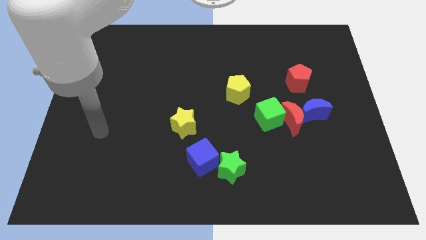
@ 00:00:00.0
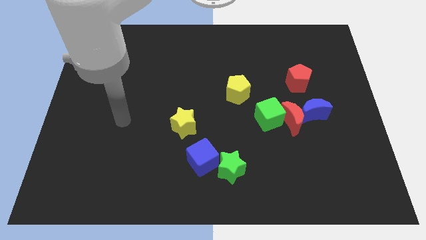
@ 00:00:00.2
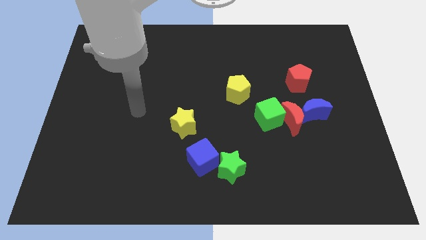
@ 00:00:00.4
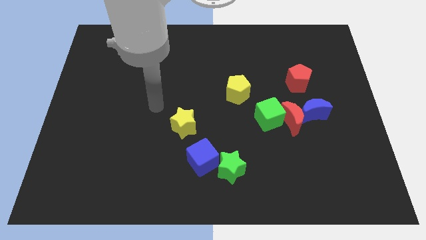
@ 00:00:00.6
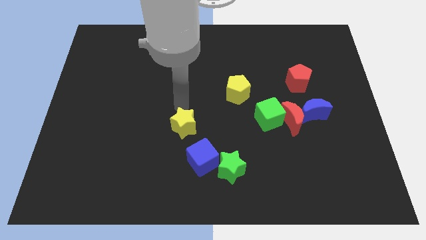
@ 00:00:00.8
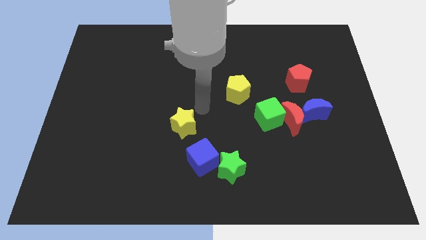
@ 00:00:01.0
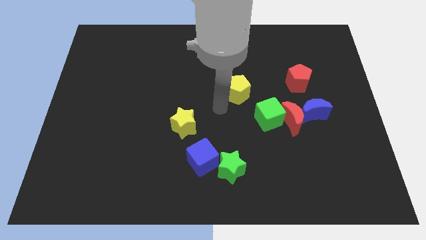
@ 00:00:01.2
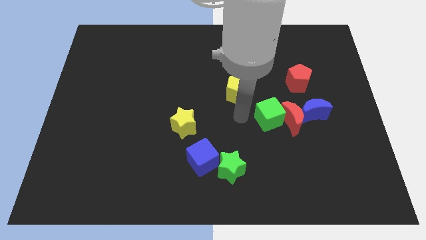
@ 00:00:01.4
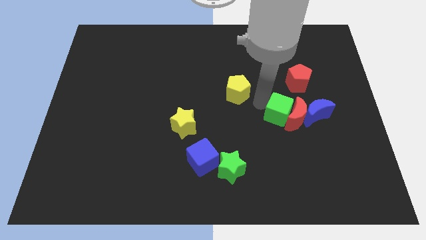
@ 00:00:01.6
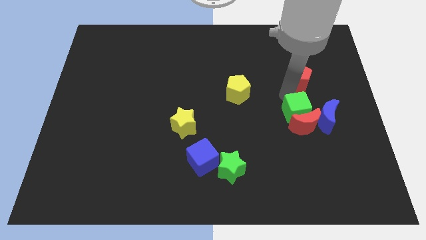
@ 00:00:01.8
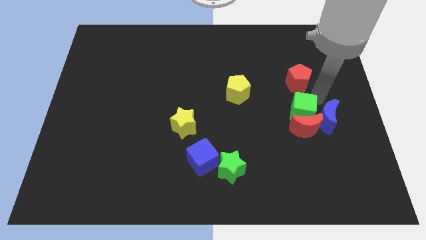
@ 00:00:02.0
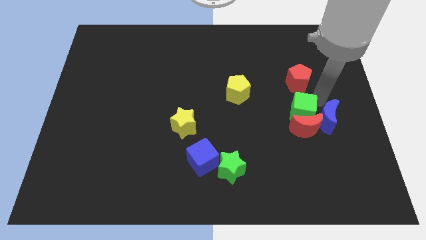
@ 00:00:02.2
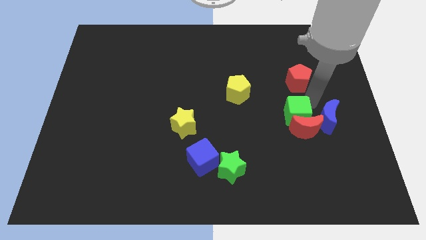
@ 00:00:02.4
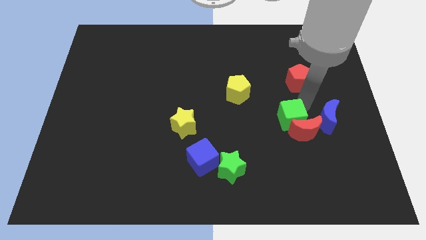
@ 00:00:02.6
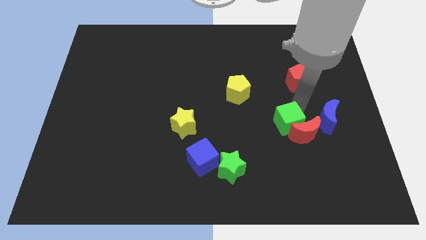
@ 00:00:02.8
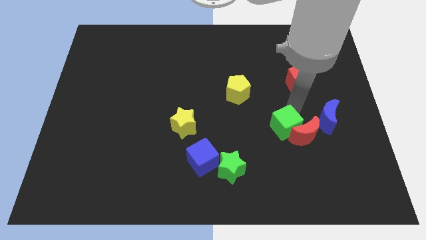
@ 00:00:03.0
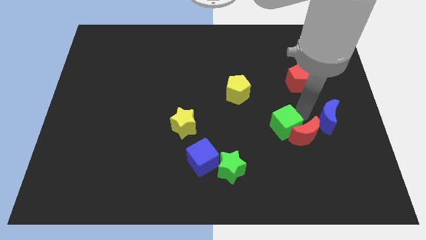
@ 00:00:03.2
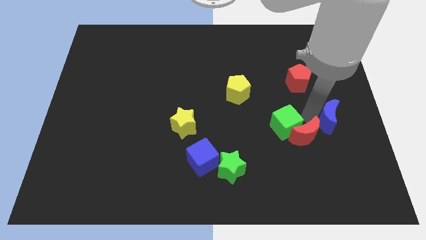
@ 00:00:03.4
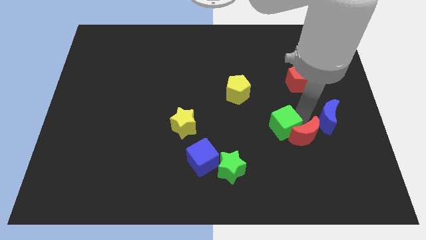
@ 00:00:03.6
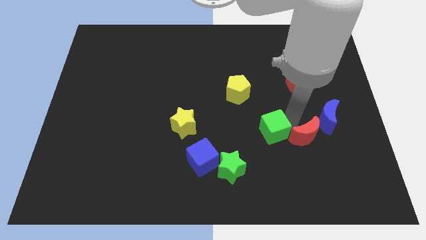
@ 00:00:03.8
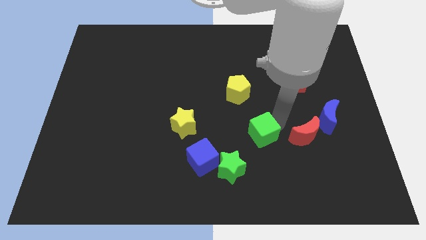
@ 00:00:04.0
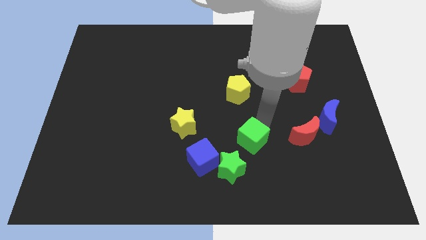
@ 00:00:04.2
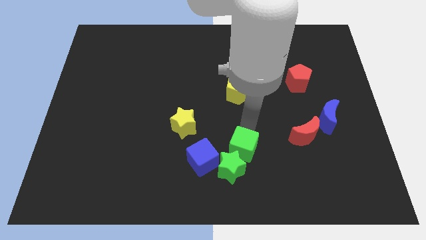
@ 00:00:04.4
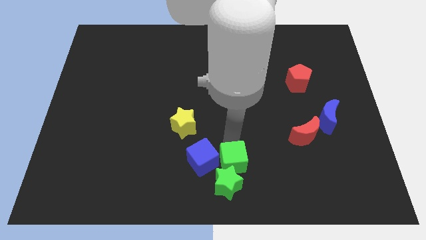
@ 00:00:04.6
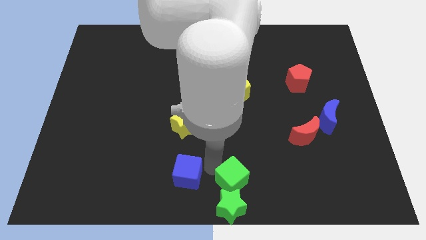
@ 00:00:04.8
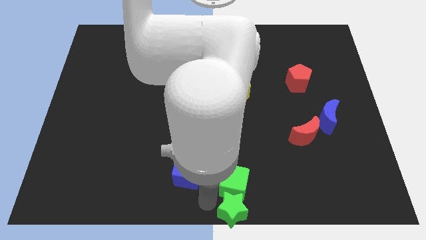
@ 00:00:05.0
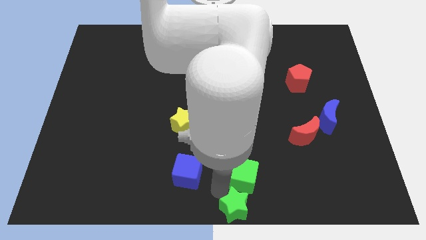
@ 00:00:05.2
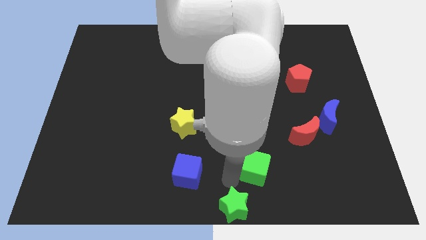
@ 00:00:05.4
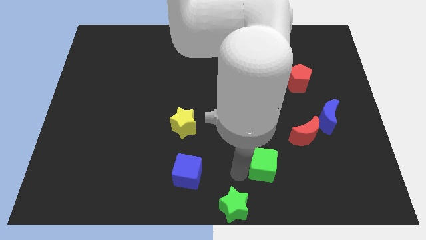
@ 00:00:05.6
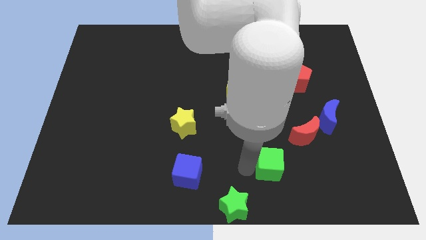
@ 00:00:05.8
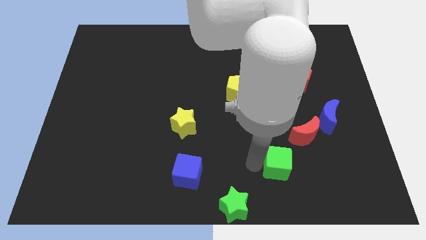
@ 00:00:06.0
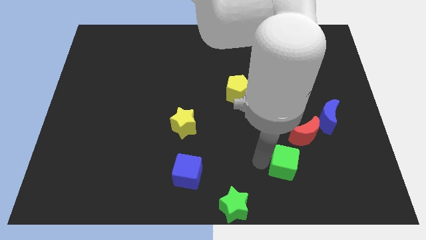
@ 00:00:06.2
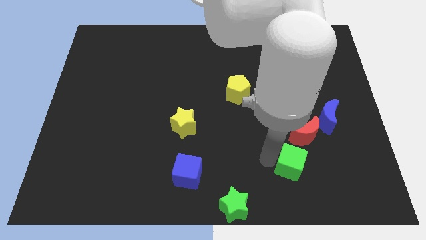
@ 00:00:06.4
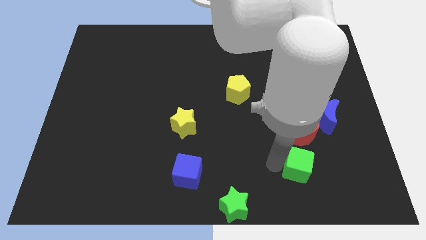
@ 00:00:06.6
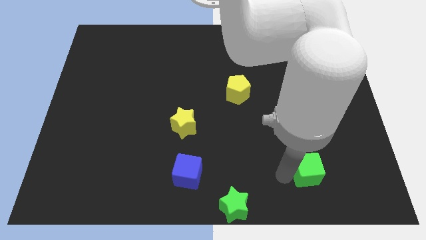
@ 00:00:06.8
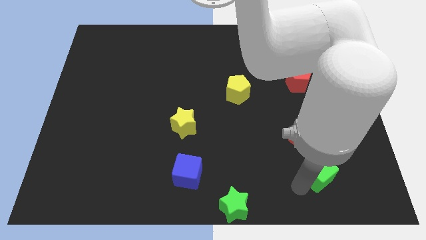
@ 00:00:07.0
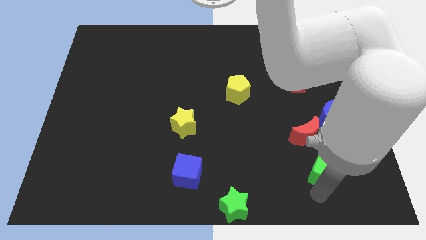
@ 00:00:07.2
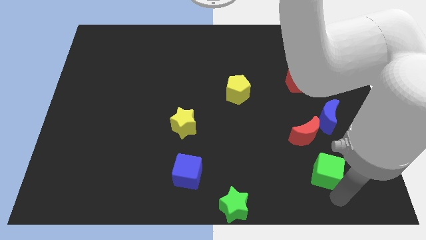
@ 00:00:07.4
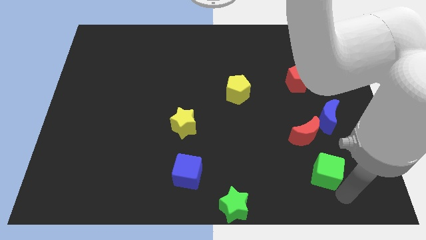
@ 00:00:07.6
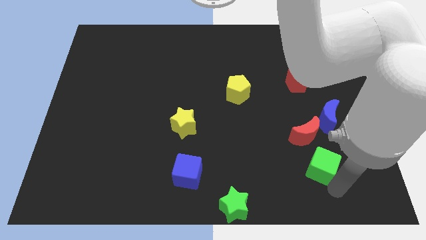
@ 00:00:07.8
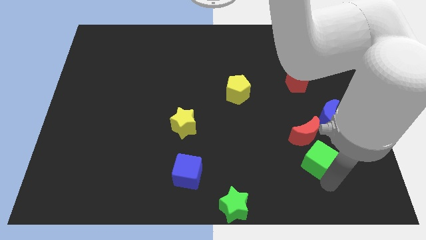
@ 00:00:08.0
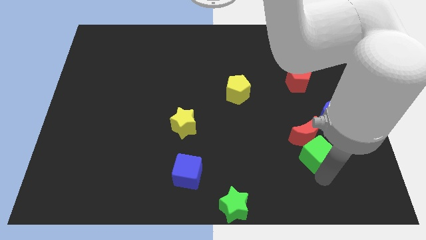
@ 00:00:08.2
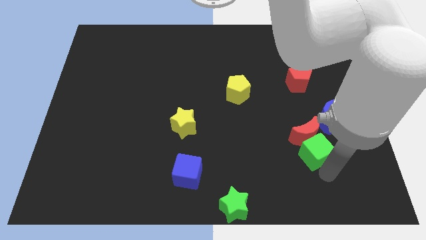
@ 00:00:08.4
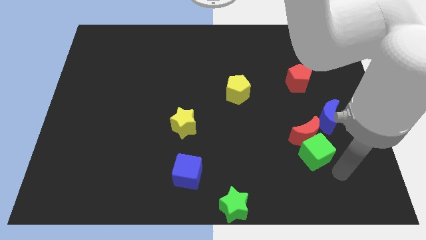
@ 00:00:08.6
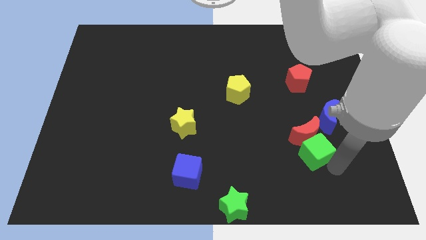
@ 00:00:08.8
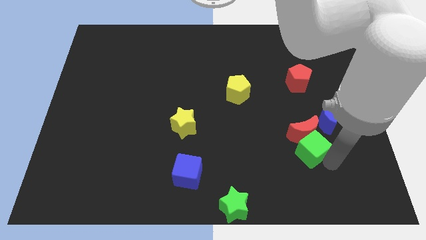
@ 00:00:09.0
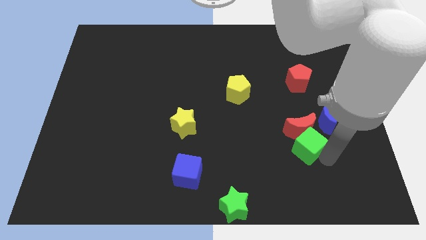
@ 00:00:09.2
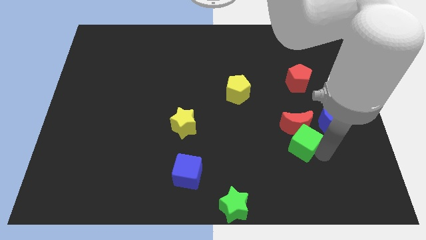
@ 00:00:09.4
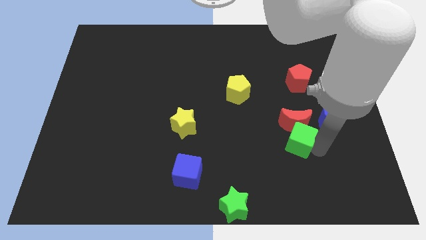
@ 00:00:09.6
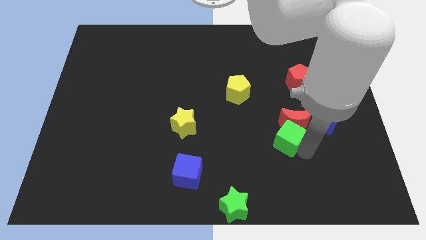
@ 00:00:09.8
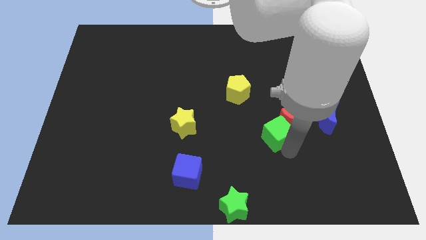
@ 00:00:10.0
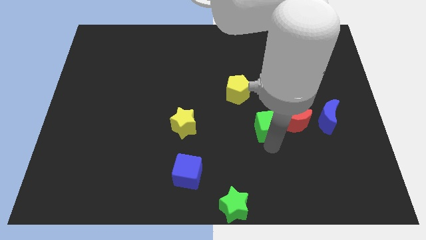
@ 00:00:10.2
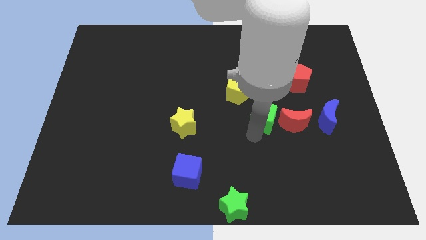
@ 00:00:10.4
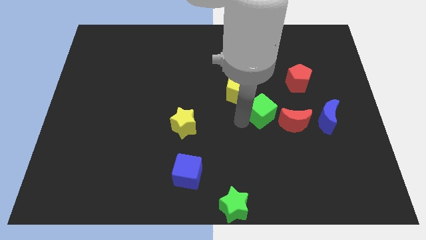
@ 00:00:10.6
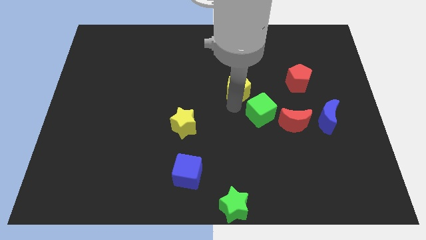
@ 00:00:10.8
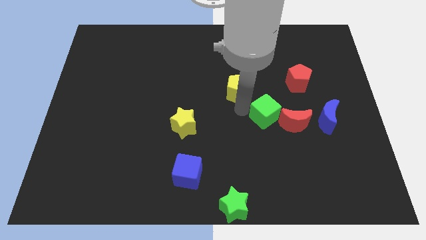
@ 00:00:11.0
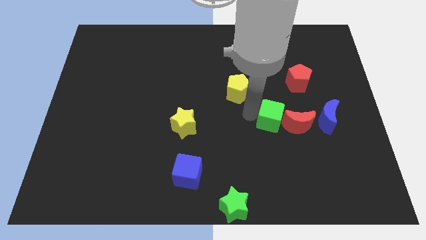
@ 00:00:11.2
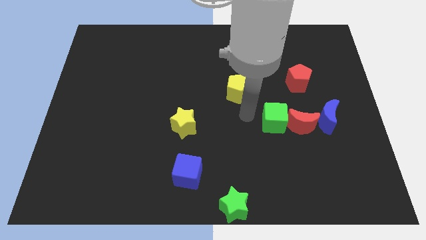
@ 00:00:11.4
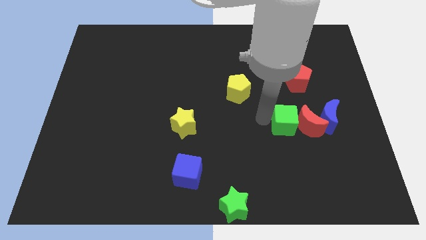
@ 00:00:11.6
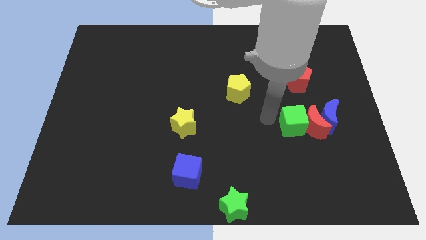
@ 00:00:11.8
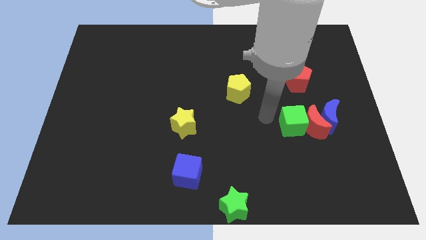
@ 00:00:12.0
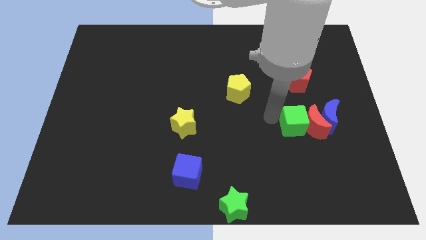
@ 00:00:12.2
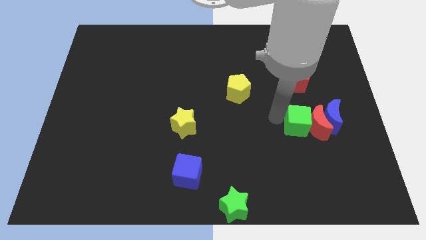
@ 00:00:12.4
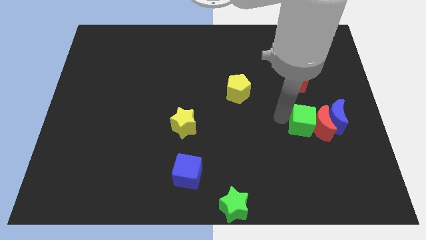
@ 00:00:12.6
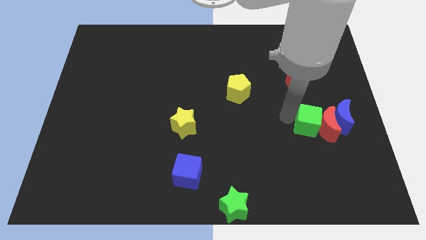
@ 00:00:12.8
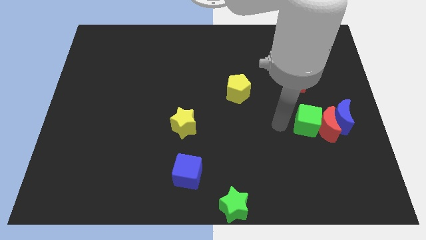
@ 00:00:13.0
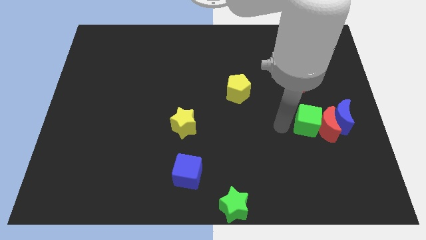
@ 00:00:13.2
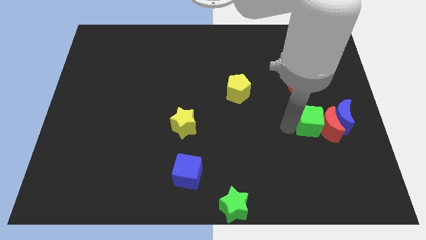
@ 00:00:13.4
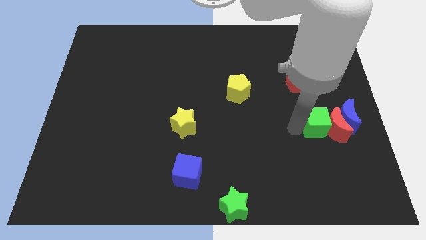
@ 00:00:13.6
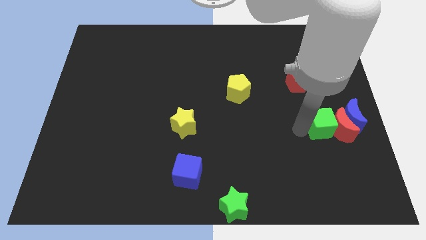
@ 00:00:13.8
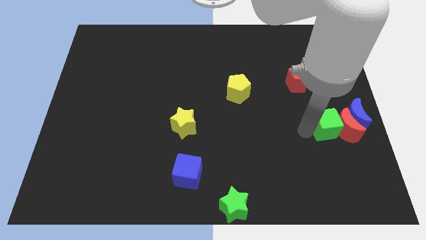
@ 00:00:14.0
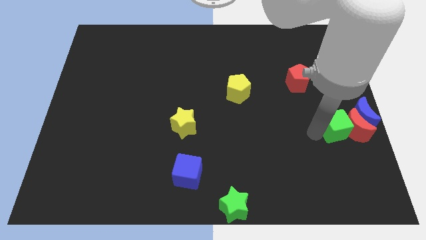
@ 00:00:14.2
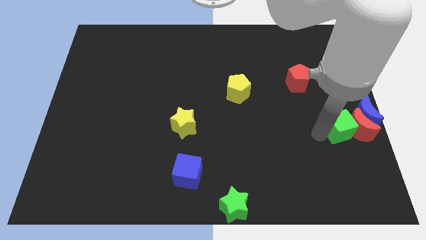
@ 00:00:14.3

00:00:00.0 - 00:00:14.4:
move the green cube to the right side

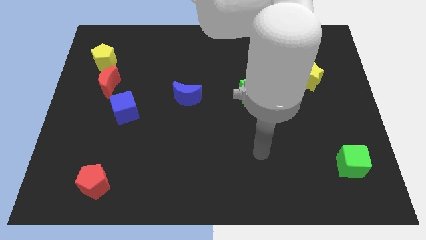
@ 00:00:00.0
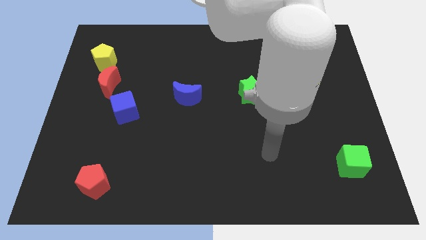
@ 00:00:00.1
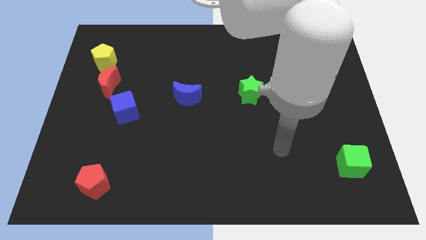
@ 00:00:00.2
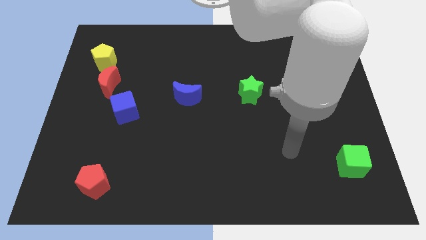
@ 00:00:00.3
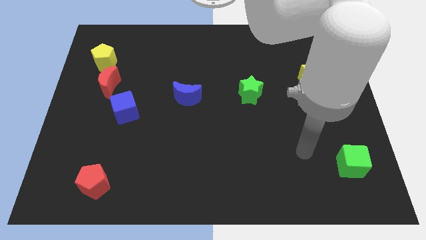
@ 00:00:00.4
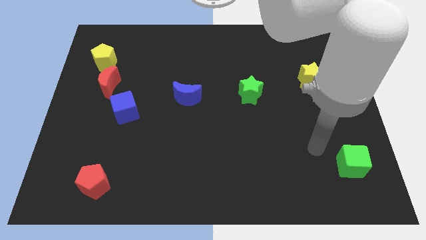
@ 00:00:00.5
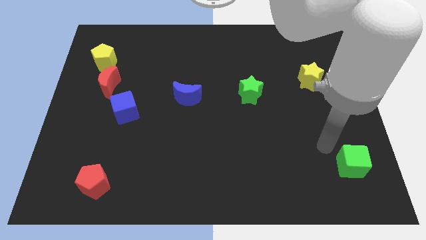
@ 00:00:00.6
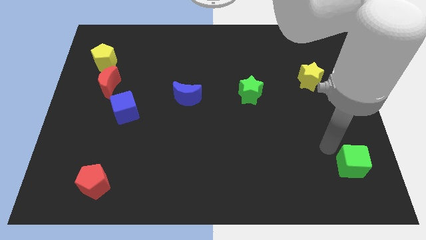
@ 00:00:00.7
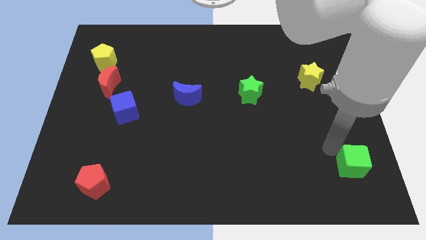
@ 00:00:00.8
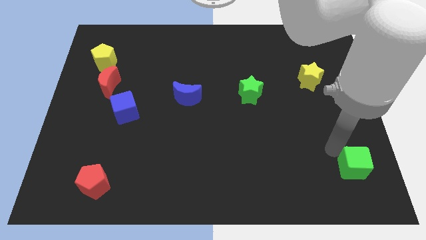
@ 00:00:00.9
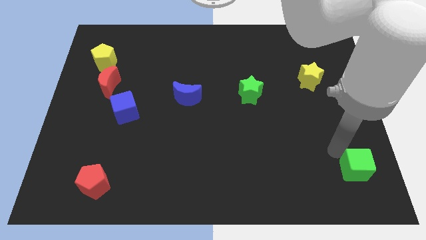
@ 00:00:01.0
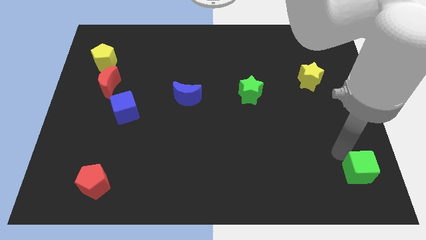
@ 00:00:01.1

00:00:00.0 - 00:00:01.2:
slide the green cube to the bottom right of the board
